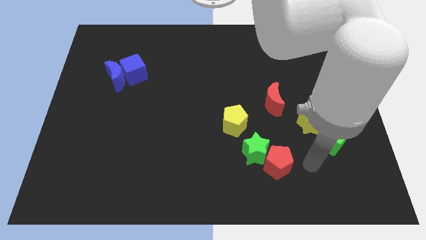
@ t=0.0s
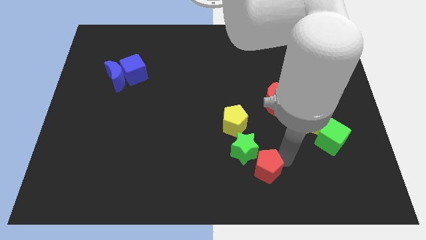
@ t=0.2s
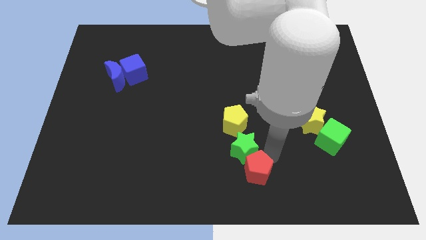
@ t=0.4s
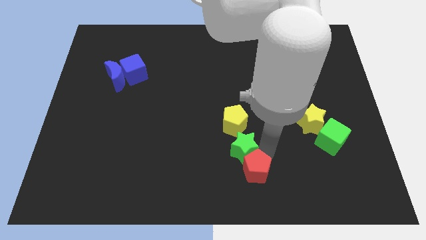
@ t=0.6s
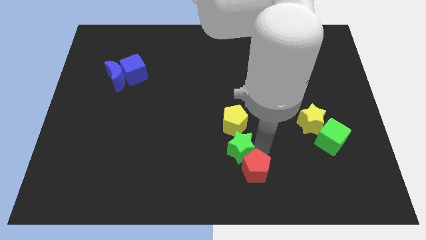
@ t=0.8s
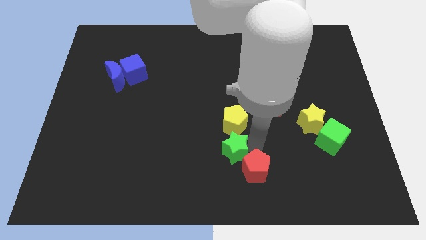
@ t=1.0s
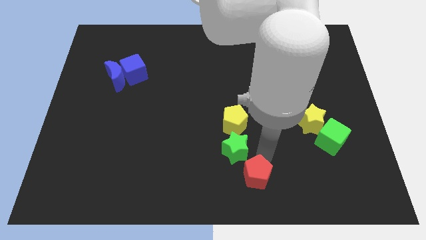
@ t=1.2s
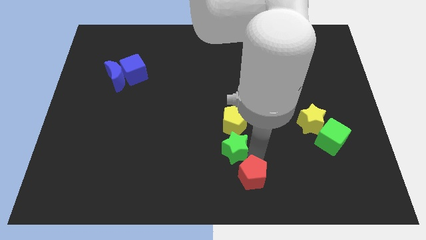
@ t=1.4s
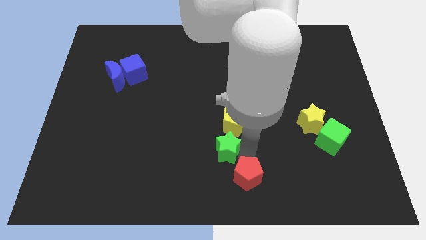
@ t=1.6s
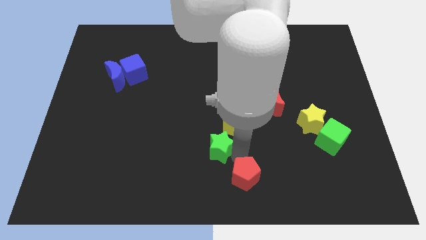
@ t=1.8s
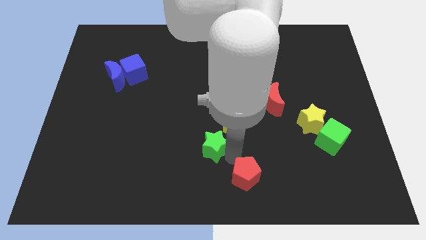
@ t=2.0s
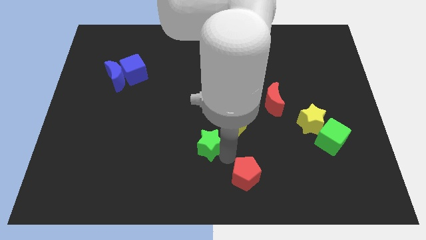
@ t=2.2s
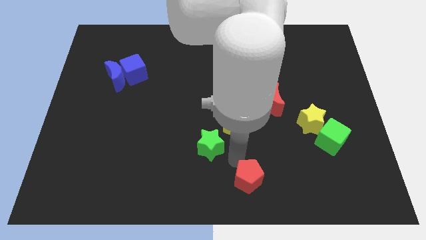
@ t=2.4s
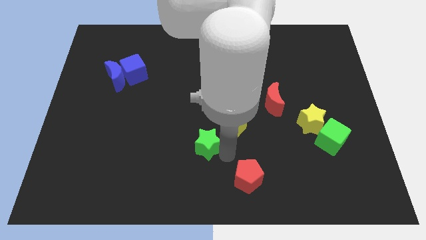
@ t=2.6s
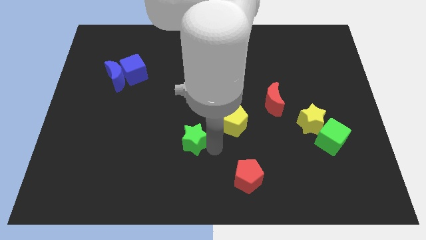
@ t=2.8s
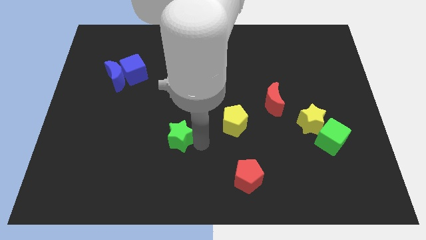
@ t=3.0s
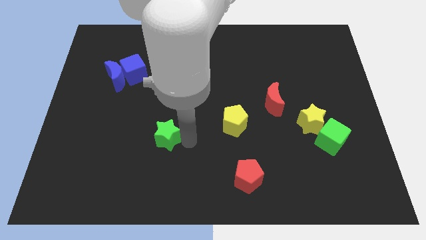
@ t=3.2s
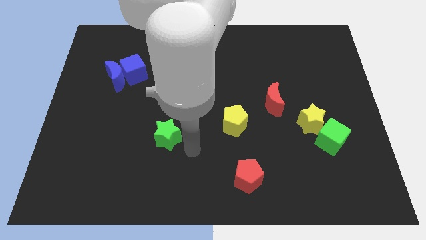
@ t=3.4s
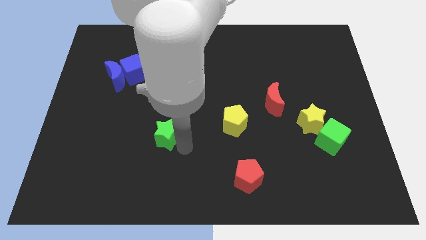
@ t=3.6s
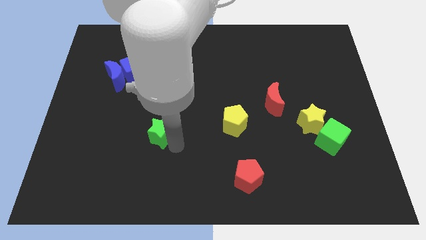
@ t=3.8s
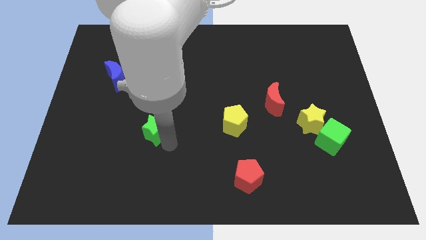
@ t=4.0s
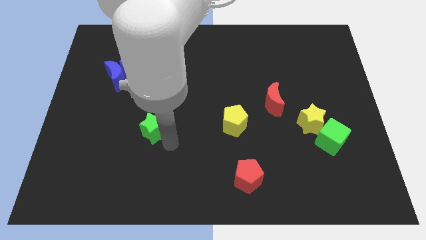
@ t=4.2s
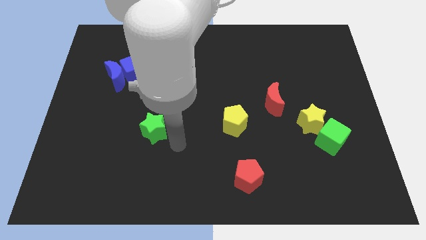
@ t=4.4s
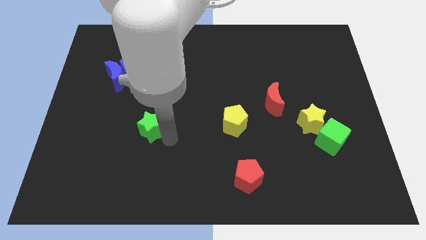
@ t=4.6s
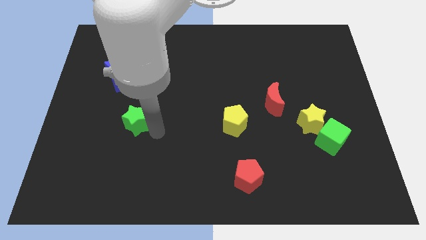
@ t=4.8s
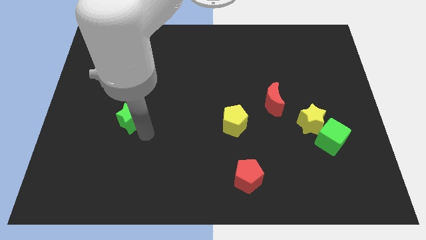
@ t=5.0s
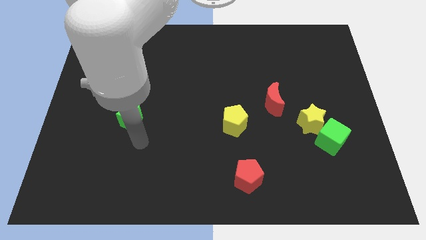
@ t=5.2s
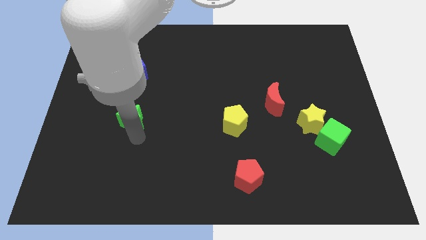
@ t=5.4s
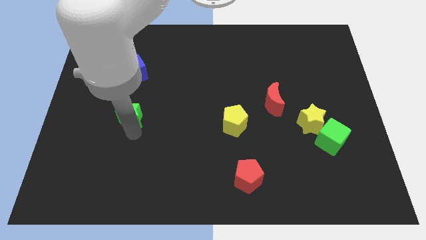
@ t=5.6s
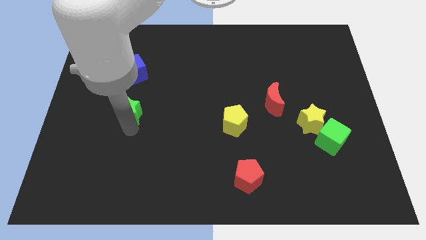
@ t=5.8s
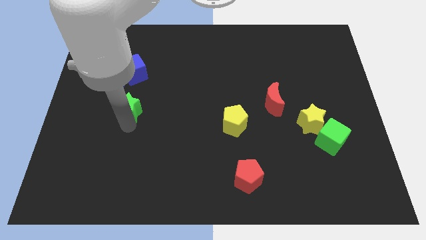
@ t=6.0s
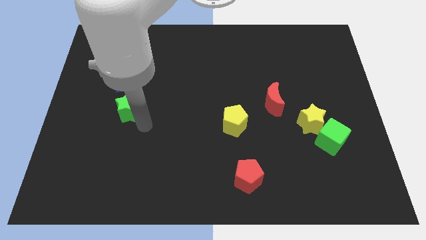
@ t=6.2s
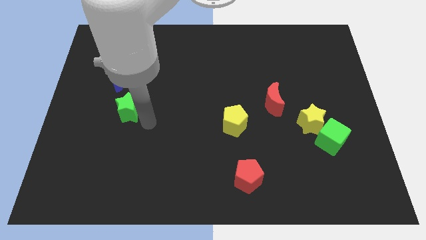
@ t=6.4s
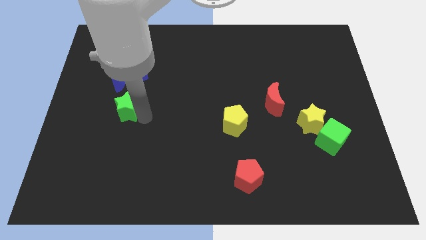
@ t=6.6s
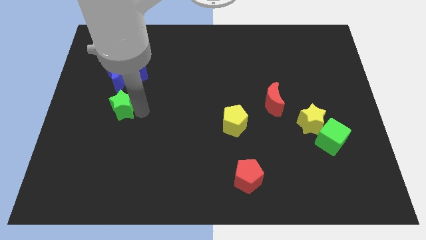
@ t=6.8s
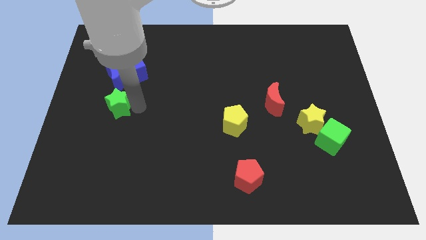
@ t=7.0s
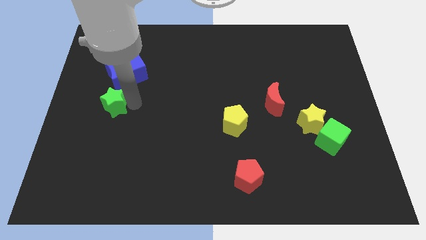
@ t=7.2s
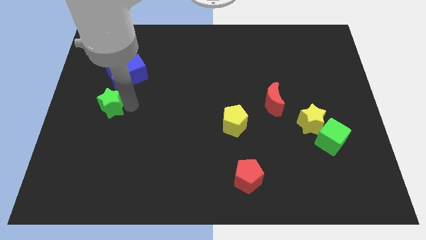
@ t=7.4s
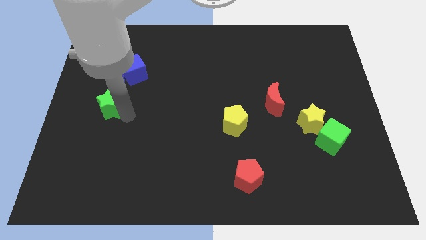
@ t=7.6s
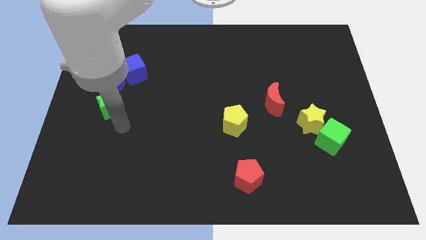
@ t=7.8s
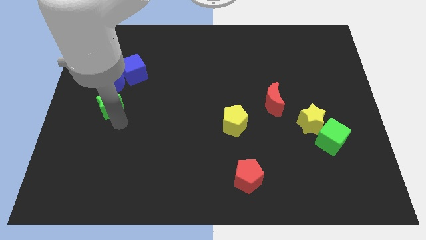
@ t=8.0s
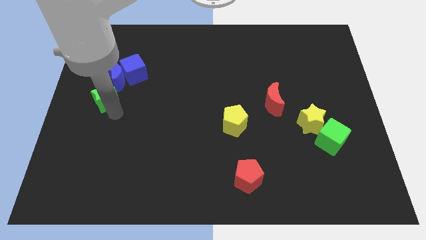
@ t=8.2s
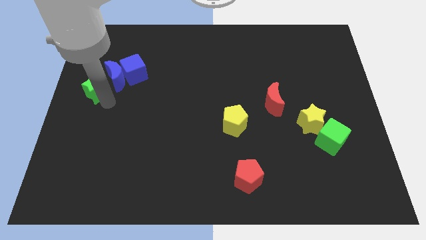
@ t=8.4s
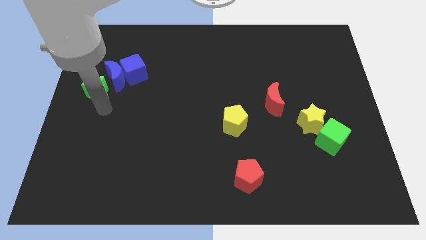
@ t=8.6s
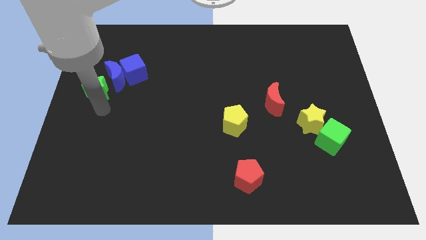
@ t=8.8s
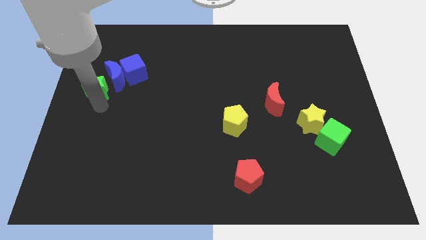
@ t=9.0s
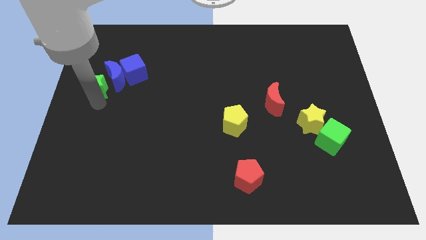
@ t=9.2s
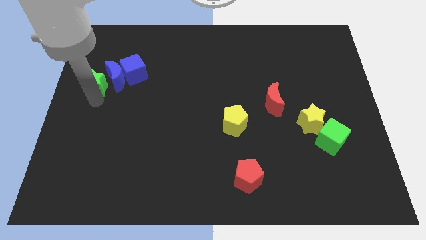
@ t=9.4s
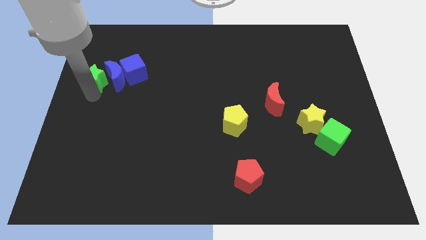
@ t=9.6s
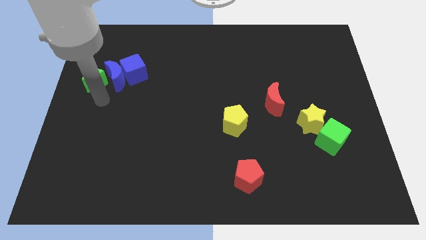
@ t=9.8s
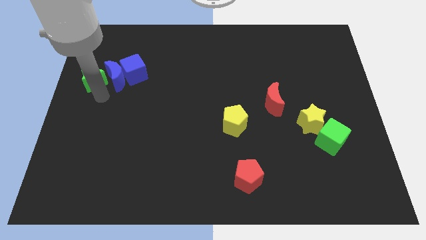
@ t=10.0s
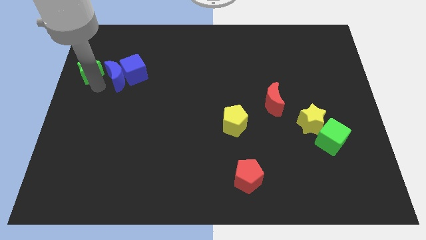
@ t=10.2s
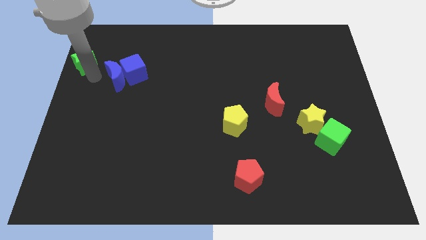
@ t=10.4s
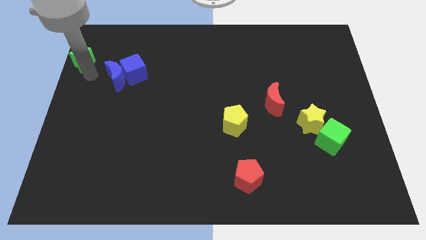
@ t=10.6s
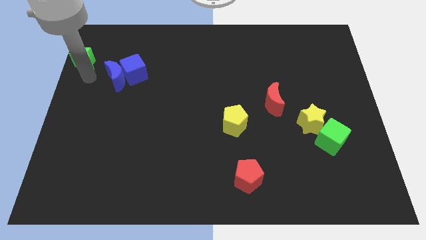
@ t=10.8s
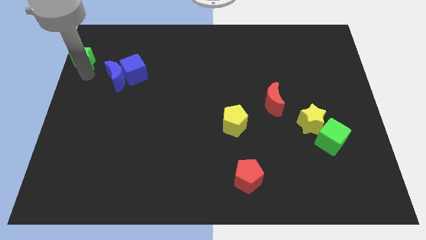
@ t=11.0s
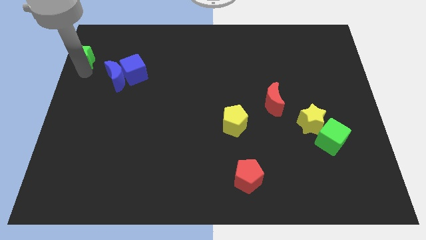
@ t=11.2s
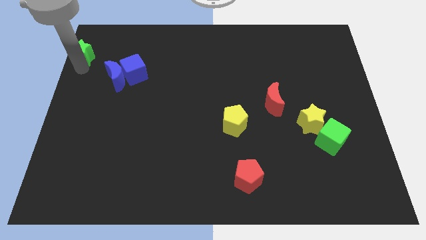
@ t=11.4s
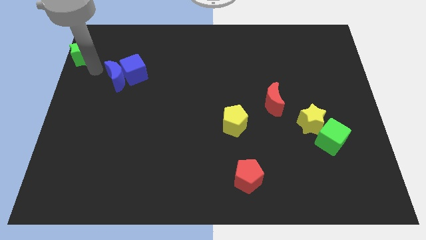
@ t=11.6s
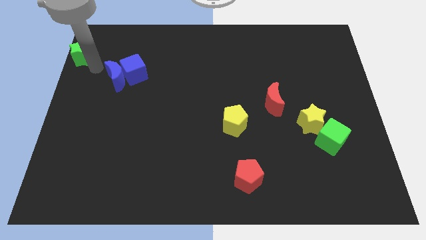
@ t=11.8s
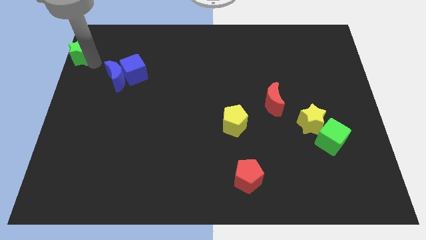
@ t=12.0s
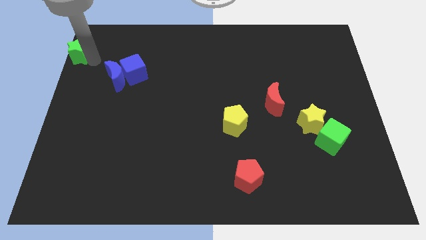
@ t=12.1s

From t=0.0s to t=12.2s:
put the green star to the upper left corner
